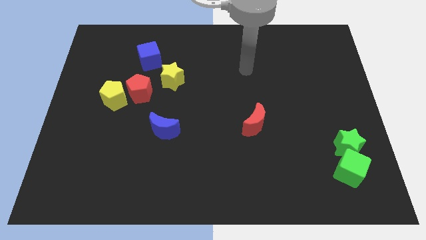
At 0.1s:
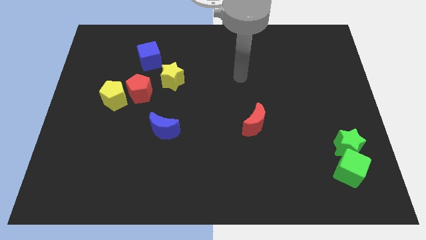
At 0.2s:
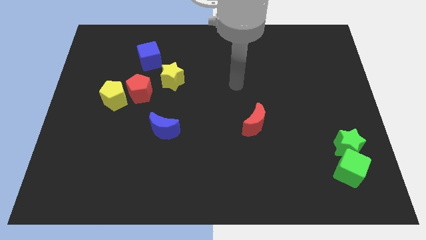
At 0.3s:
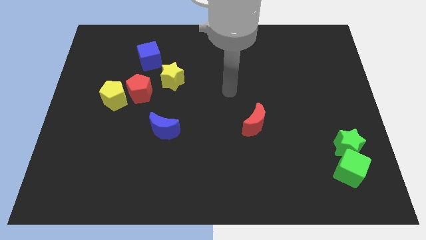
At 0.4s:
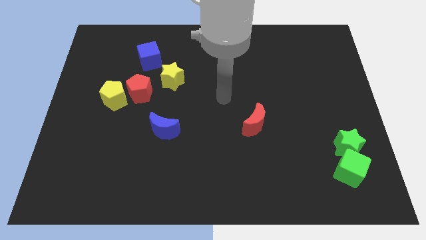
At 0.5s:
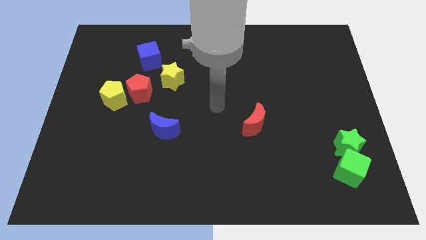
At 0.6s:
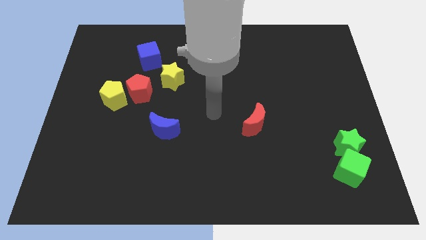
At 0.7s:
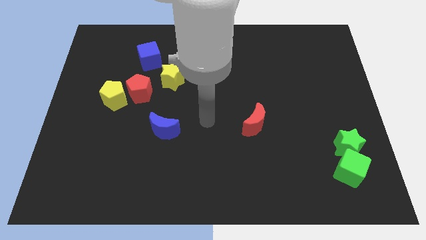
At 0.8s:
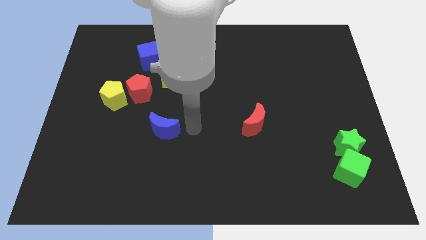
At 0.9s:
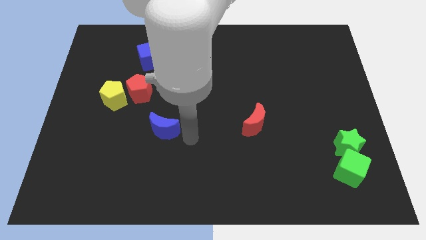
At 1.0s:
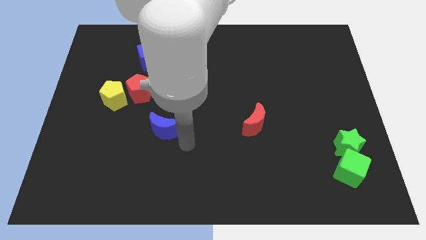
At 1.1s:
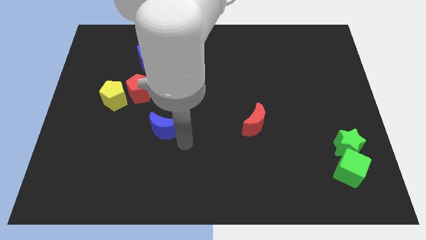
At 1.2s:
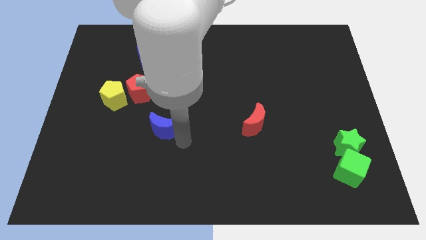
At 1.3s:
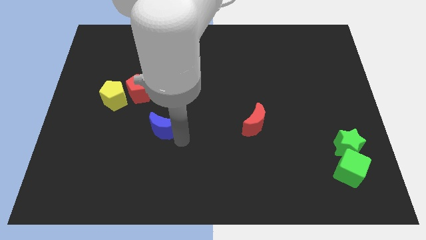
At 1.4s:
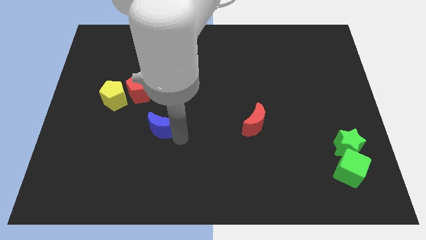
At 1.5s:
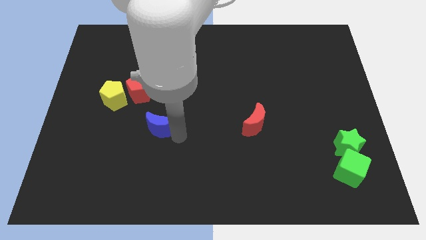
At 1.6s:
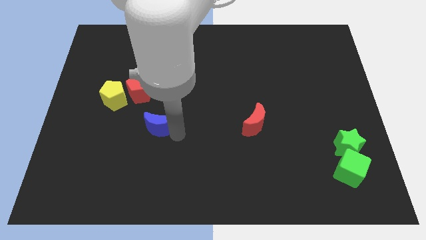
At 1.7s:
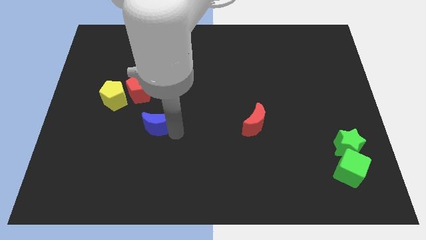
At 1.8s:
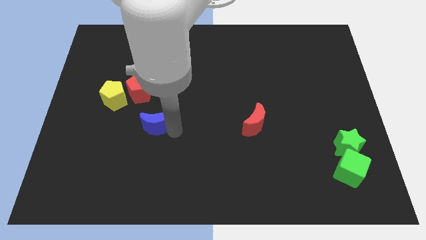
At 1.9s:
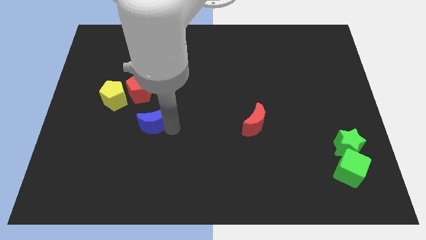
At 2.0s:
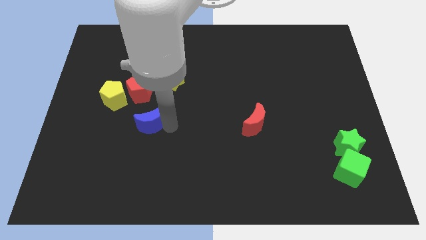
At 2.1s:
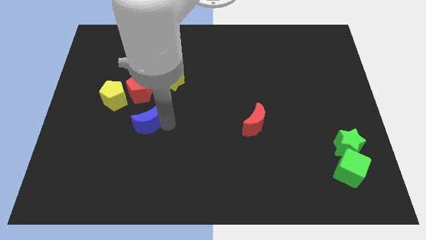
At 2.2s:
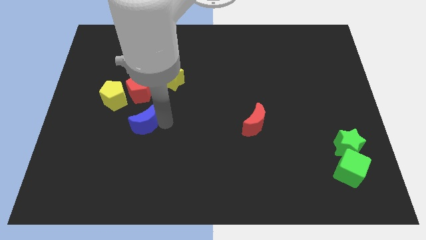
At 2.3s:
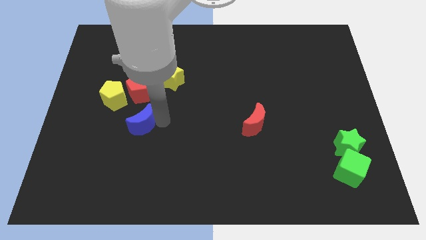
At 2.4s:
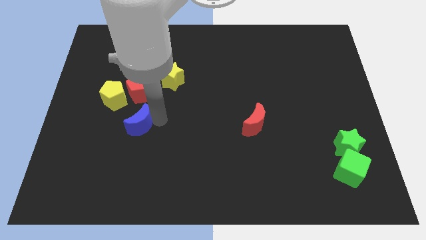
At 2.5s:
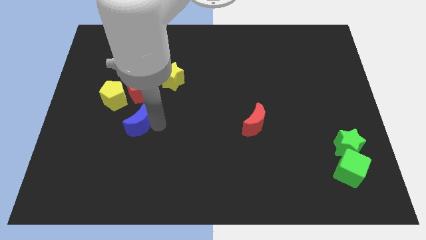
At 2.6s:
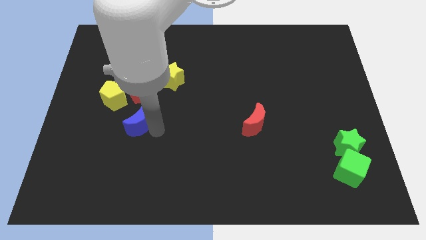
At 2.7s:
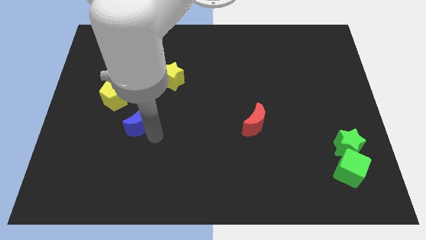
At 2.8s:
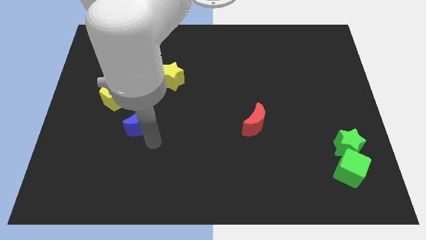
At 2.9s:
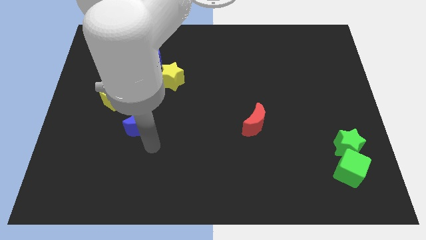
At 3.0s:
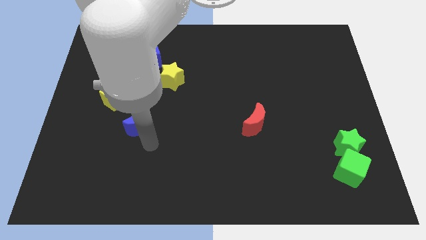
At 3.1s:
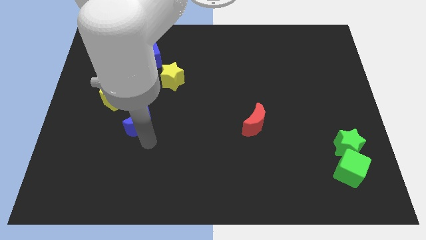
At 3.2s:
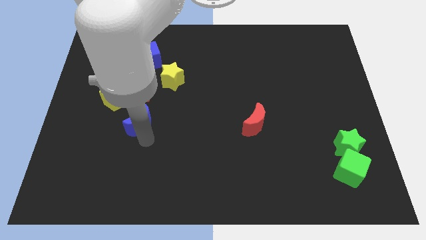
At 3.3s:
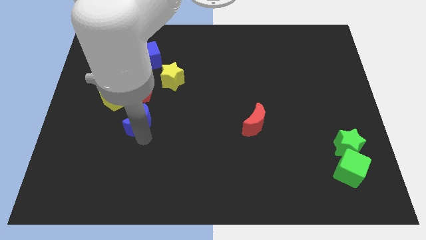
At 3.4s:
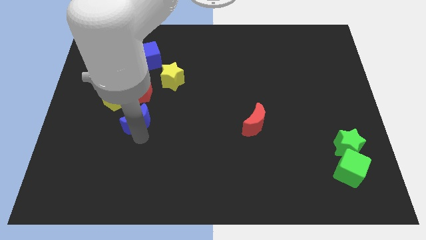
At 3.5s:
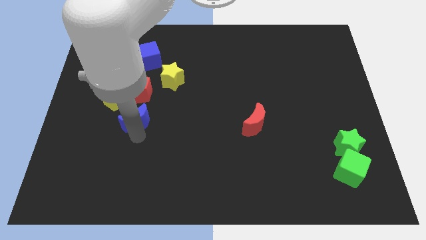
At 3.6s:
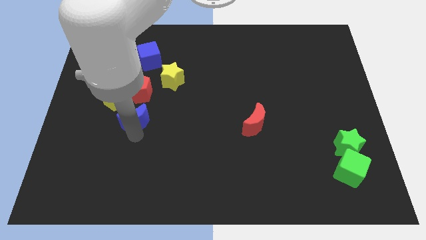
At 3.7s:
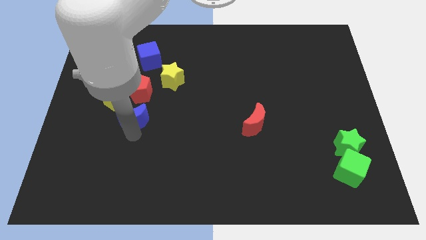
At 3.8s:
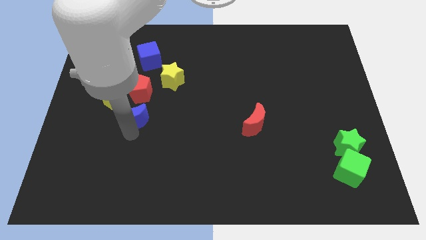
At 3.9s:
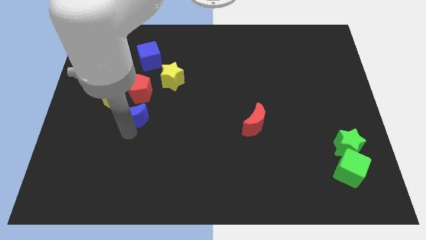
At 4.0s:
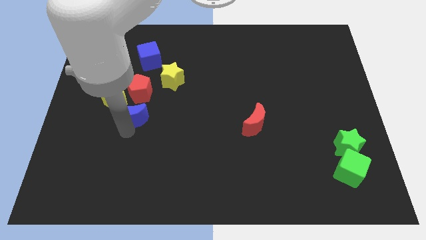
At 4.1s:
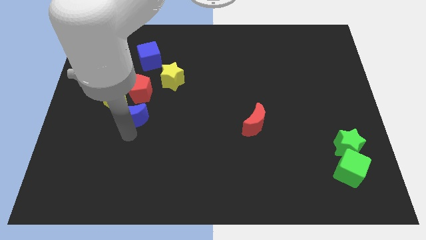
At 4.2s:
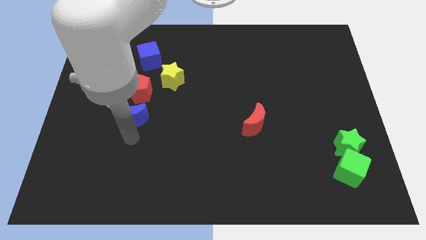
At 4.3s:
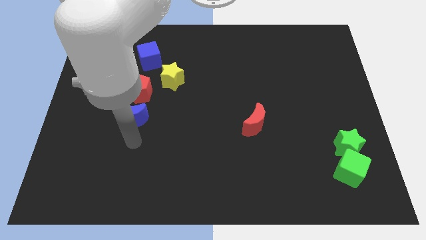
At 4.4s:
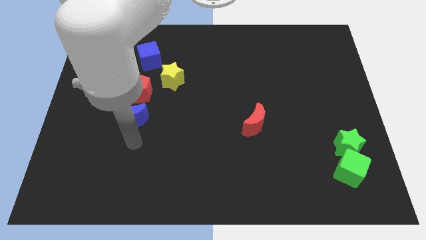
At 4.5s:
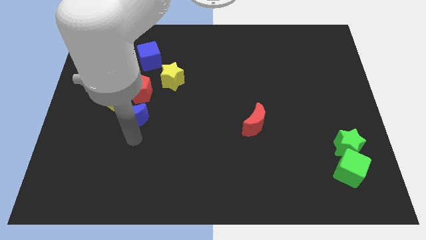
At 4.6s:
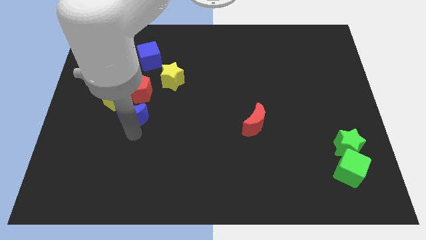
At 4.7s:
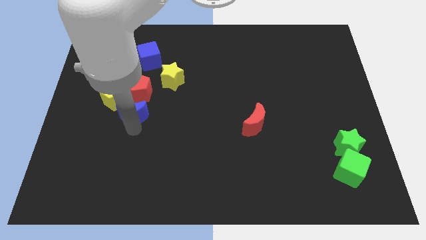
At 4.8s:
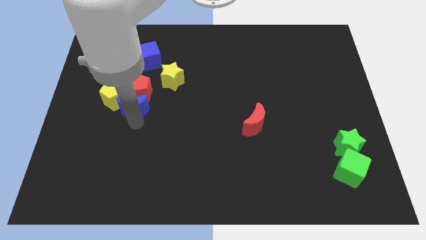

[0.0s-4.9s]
move the blue moon to the yellow pentagon

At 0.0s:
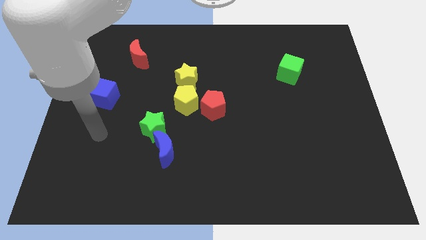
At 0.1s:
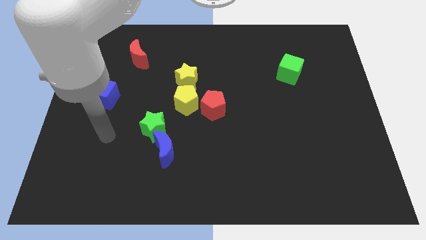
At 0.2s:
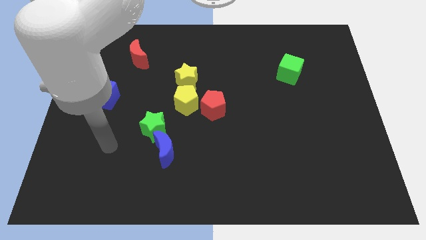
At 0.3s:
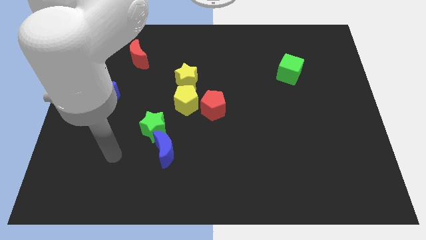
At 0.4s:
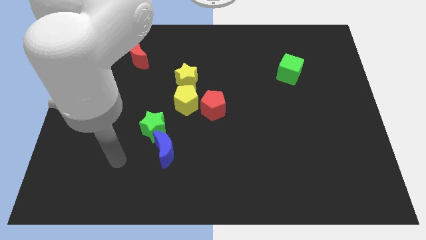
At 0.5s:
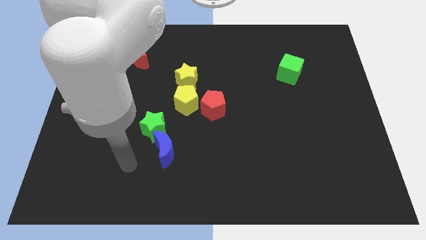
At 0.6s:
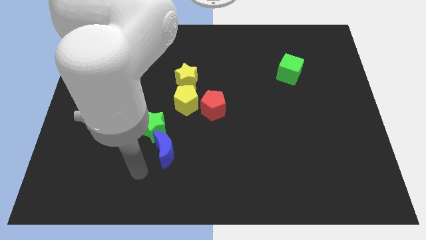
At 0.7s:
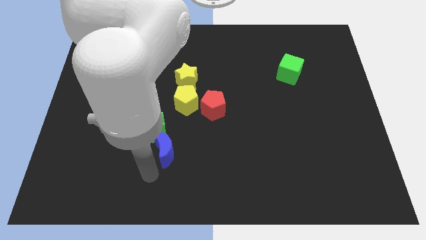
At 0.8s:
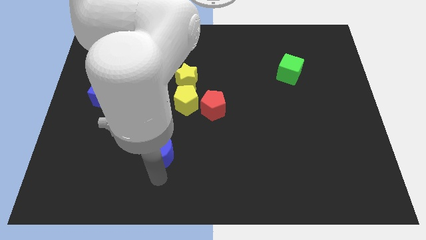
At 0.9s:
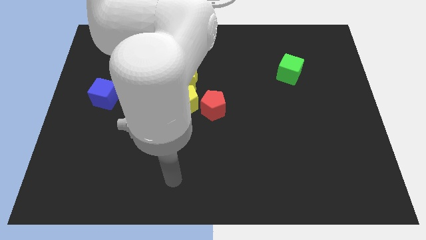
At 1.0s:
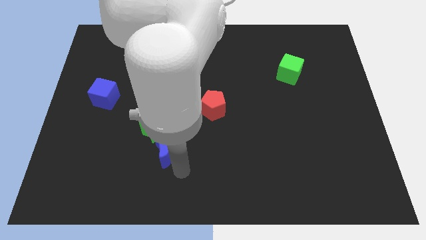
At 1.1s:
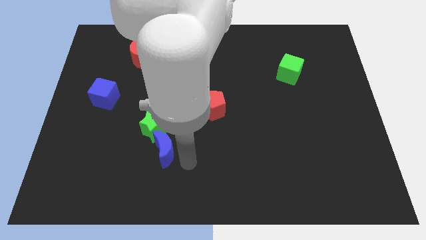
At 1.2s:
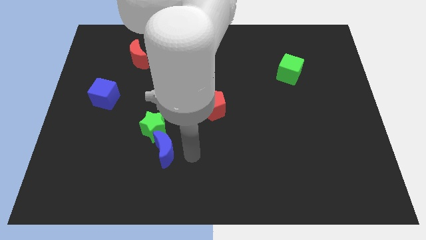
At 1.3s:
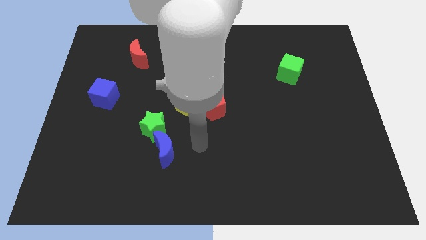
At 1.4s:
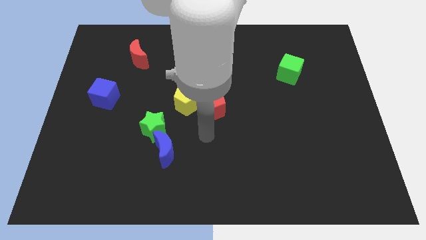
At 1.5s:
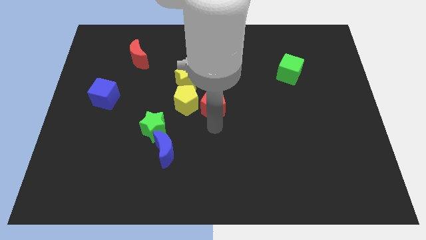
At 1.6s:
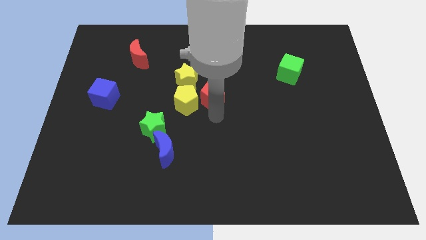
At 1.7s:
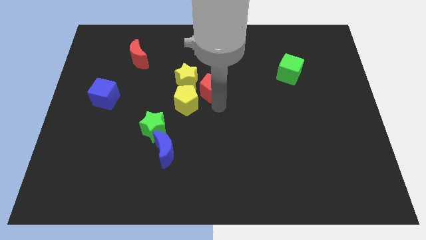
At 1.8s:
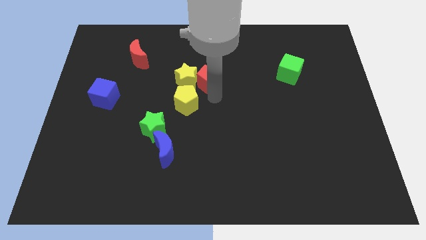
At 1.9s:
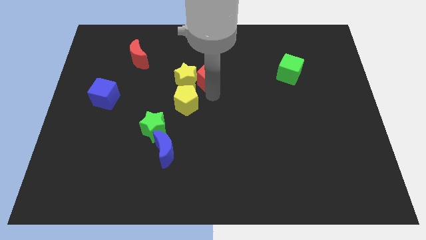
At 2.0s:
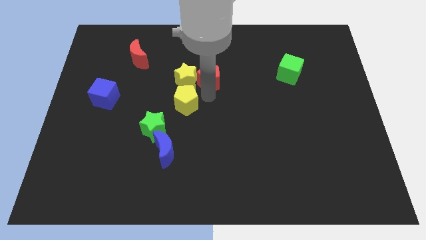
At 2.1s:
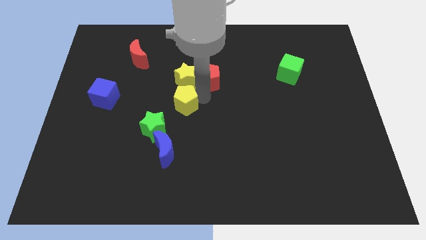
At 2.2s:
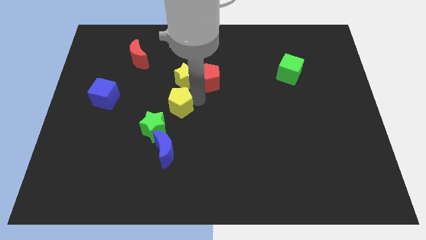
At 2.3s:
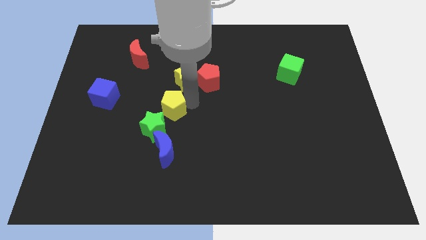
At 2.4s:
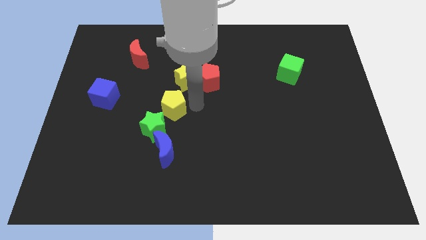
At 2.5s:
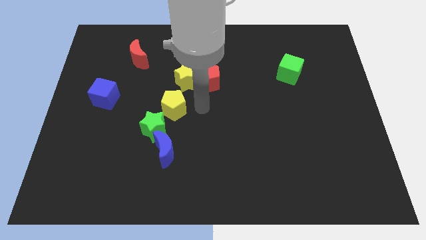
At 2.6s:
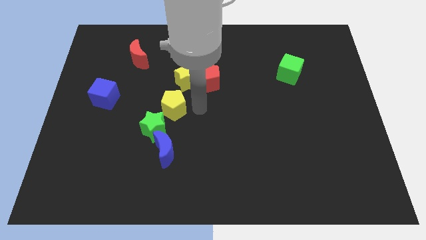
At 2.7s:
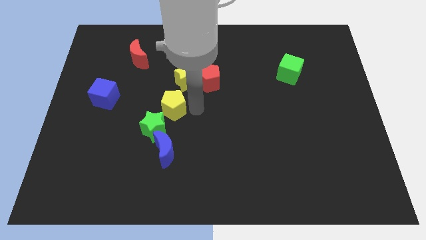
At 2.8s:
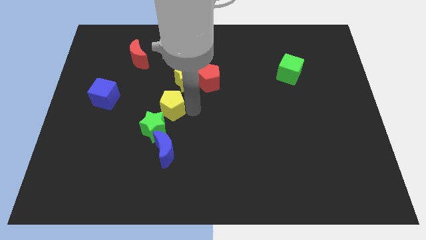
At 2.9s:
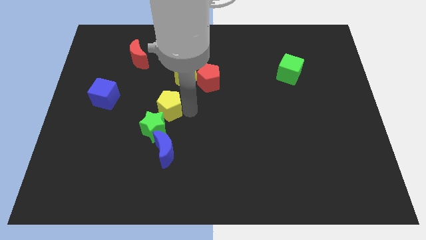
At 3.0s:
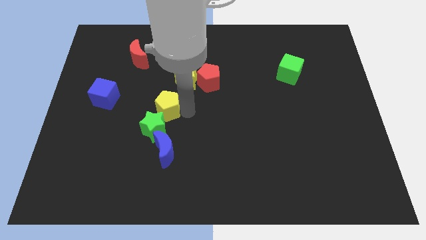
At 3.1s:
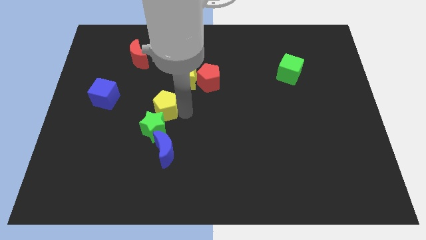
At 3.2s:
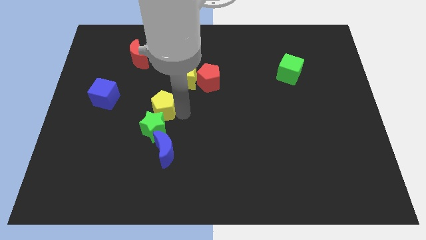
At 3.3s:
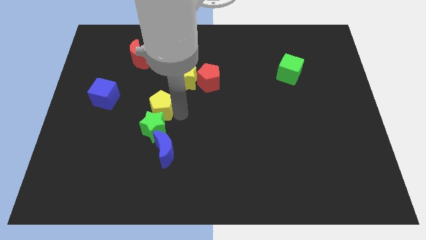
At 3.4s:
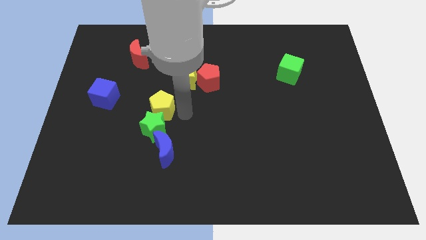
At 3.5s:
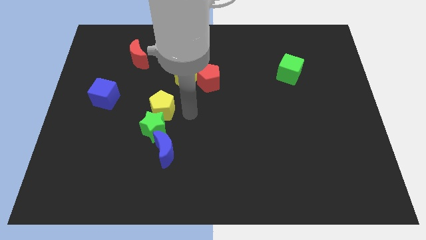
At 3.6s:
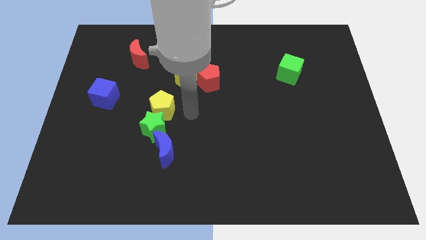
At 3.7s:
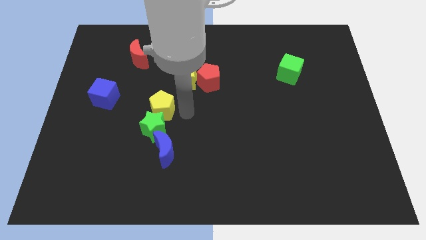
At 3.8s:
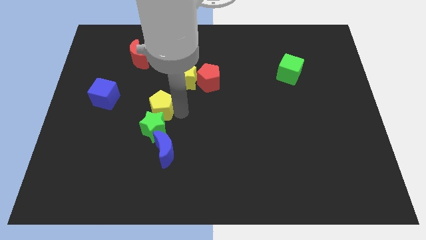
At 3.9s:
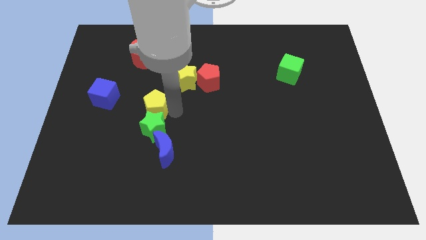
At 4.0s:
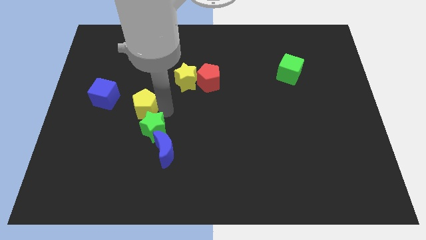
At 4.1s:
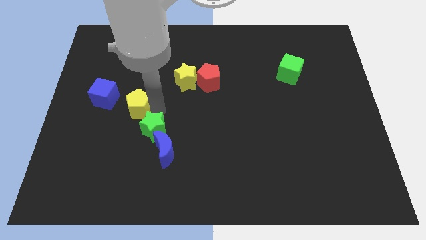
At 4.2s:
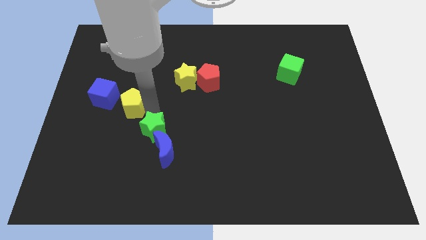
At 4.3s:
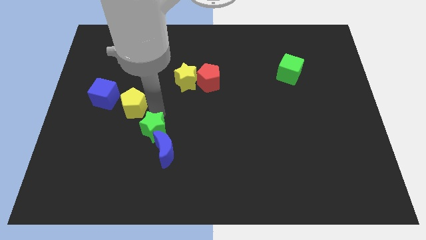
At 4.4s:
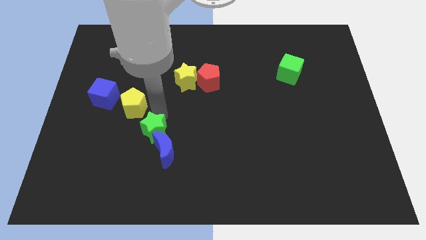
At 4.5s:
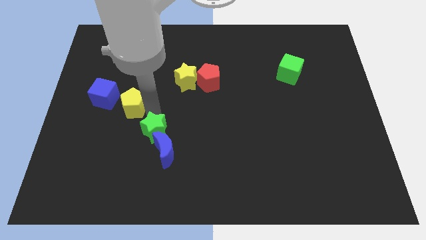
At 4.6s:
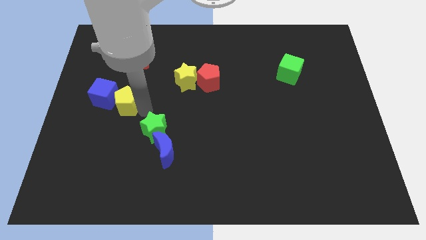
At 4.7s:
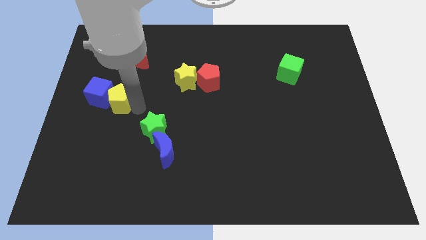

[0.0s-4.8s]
move the yellow pentagon next to the blue cube
